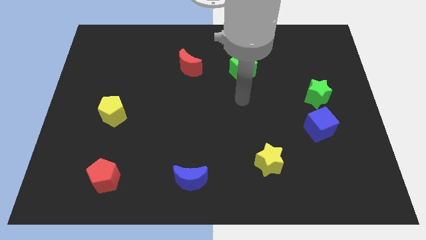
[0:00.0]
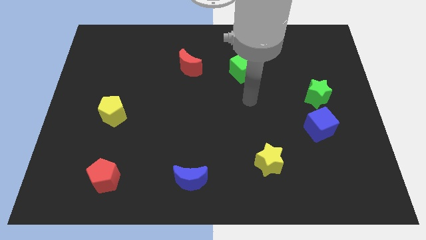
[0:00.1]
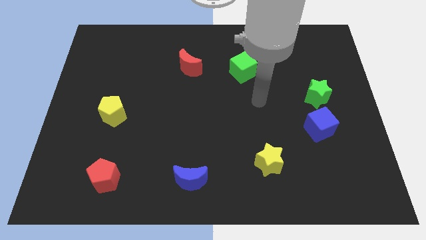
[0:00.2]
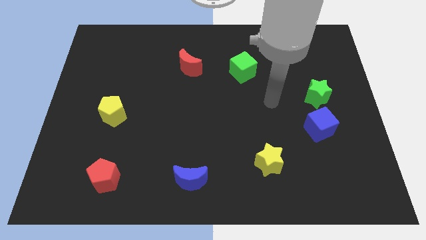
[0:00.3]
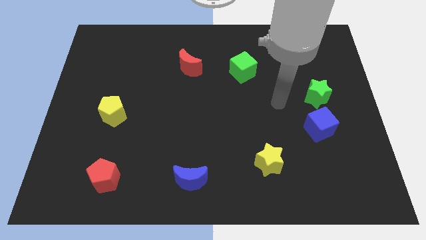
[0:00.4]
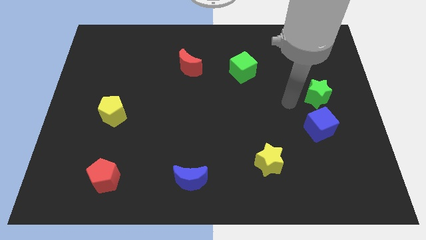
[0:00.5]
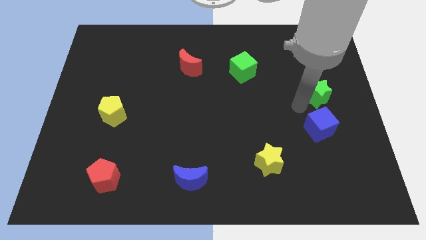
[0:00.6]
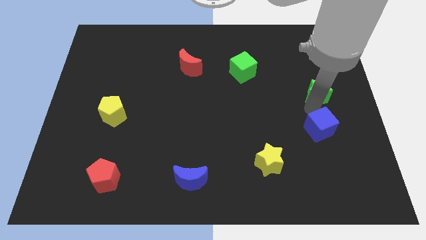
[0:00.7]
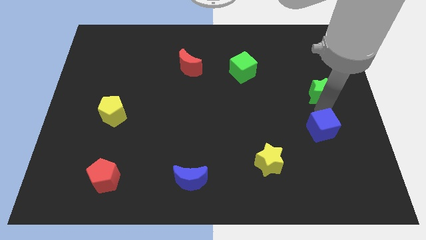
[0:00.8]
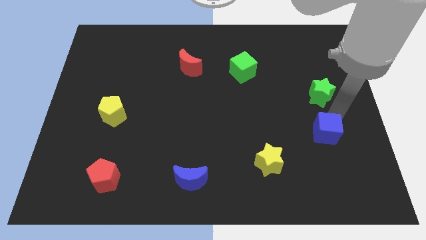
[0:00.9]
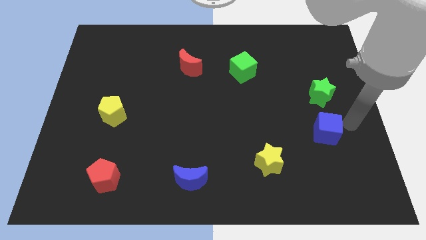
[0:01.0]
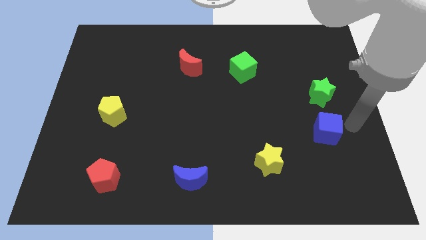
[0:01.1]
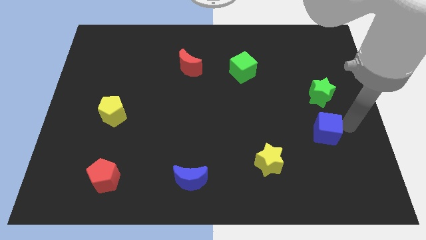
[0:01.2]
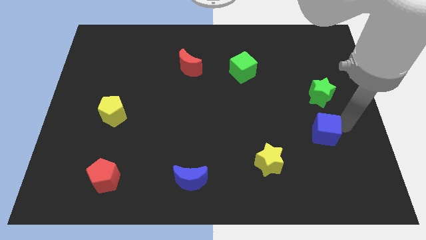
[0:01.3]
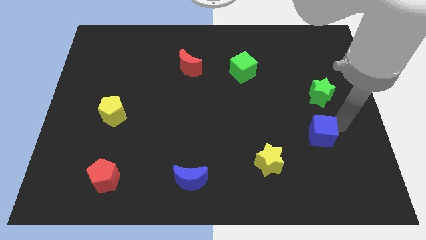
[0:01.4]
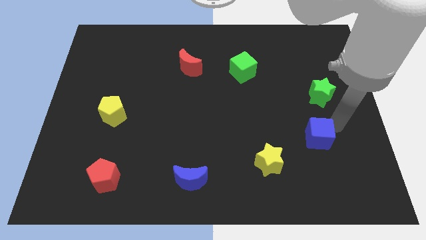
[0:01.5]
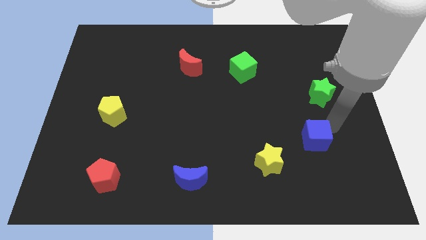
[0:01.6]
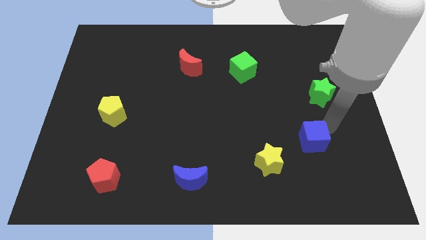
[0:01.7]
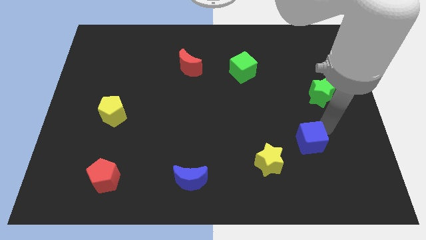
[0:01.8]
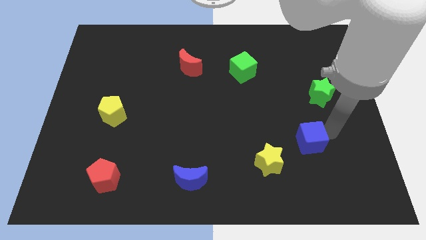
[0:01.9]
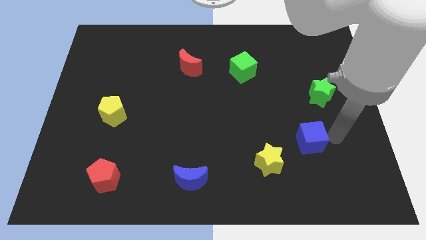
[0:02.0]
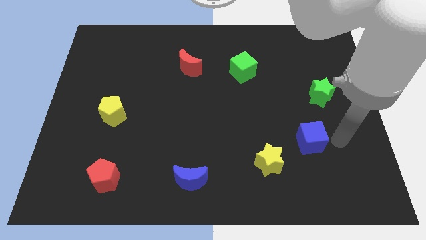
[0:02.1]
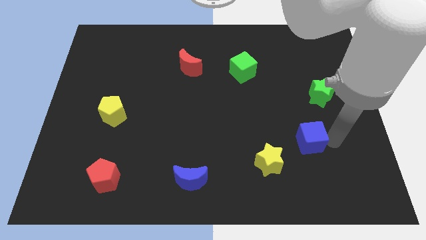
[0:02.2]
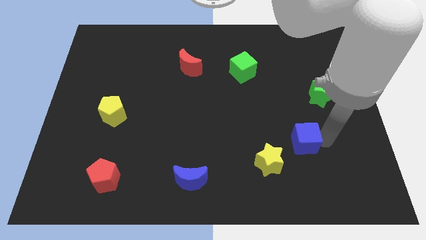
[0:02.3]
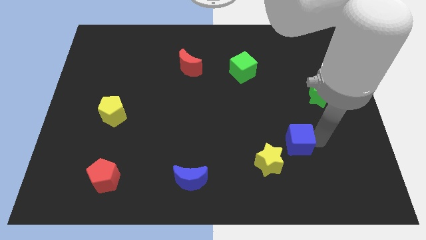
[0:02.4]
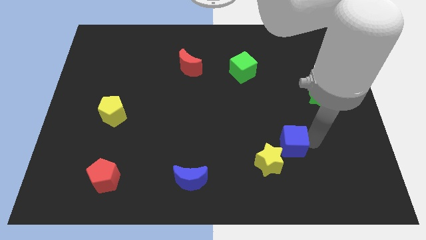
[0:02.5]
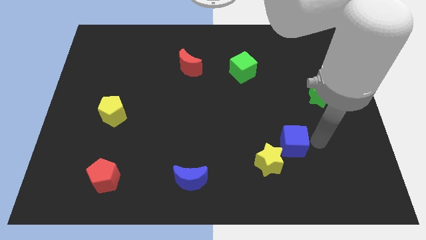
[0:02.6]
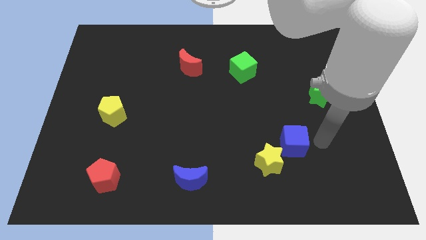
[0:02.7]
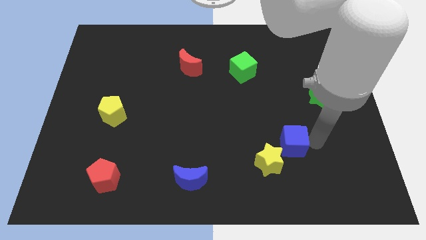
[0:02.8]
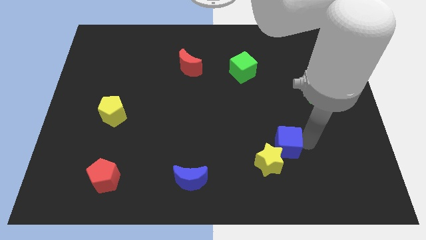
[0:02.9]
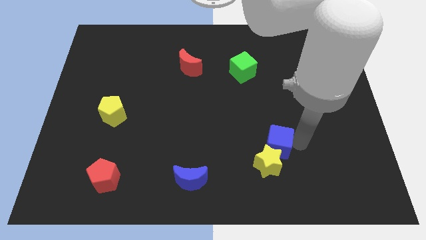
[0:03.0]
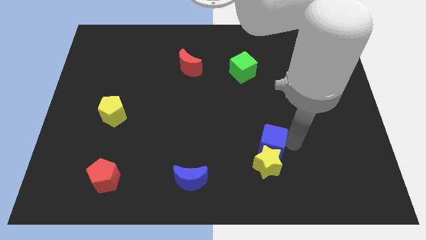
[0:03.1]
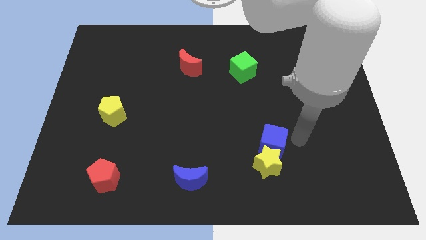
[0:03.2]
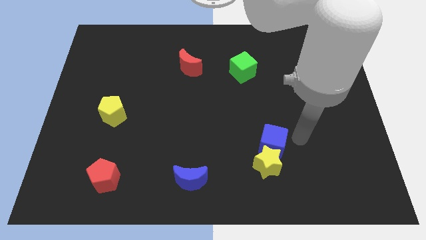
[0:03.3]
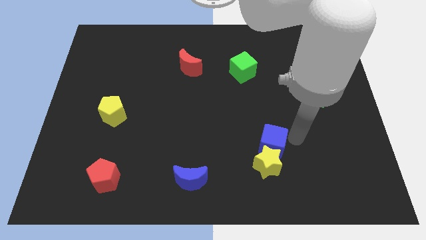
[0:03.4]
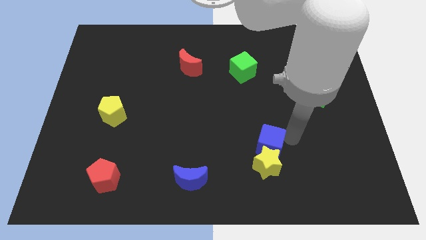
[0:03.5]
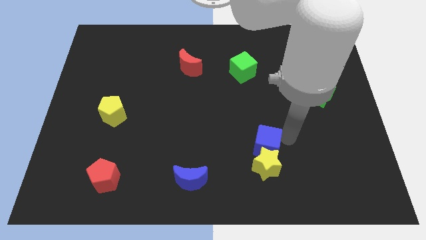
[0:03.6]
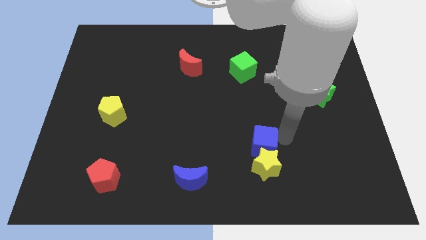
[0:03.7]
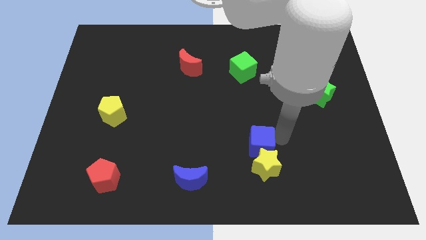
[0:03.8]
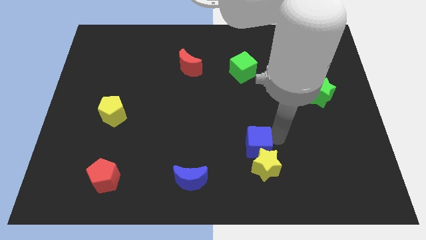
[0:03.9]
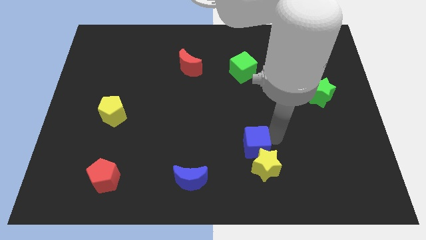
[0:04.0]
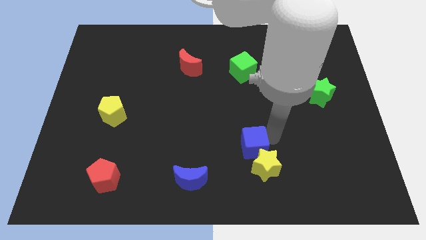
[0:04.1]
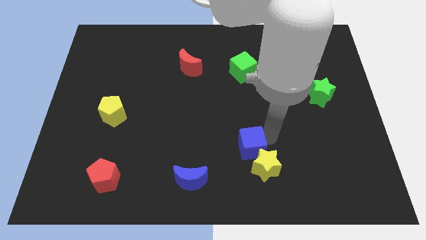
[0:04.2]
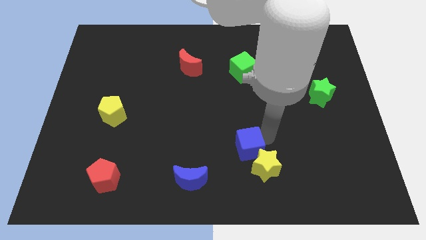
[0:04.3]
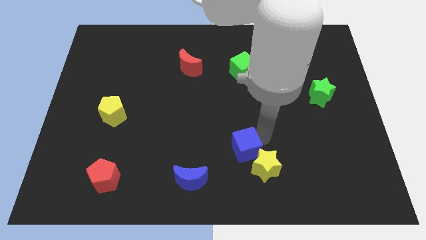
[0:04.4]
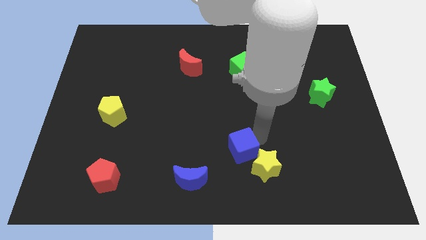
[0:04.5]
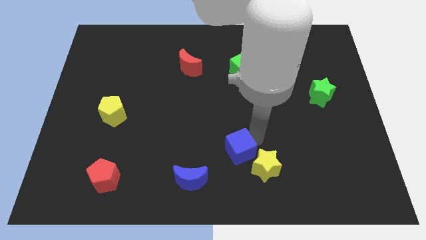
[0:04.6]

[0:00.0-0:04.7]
slide the blue cube to the top right of the blue moon

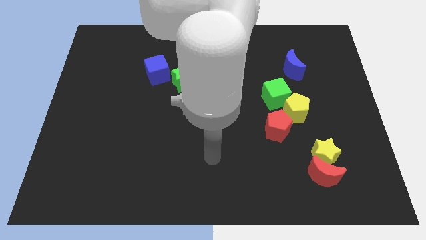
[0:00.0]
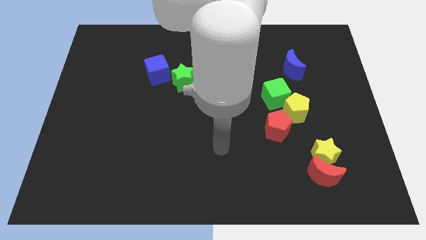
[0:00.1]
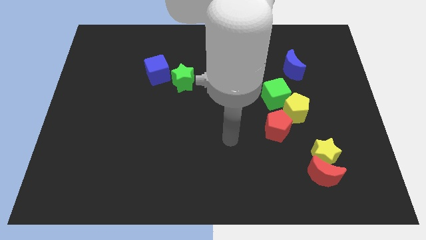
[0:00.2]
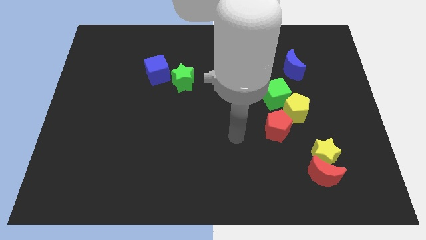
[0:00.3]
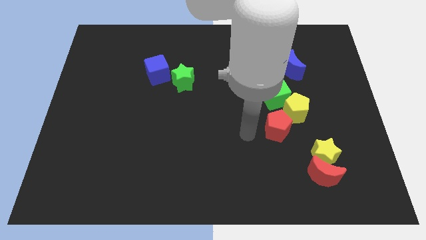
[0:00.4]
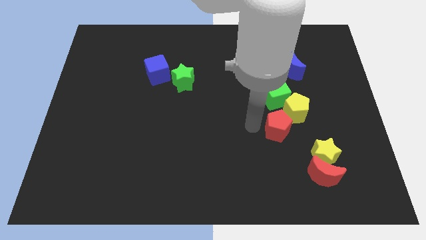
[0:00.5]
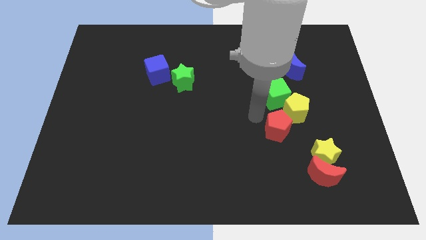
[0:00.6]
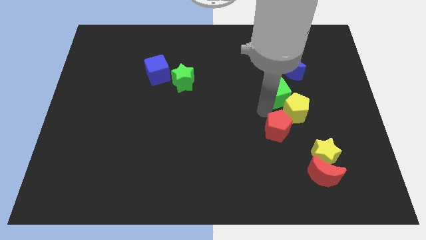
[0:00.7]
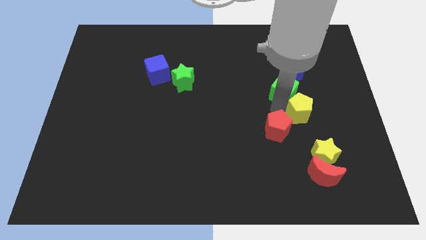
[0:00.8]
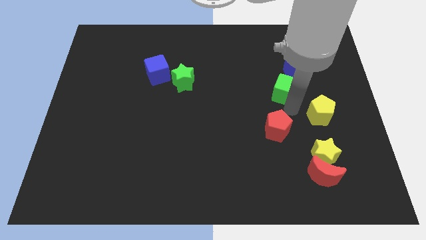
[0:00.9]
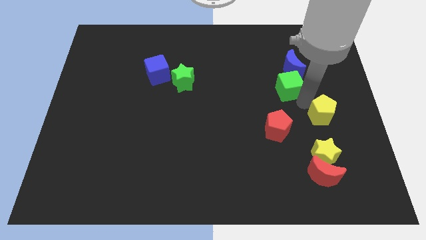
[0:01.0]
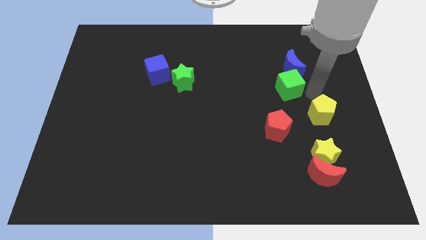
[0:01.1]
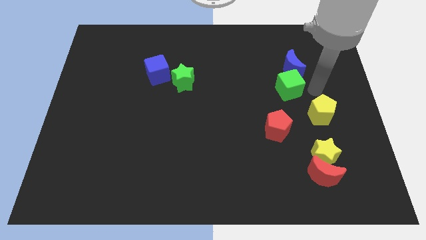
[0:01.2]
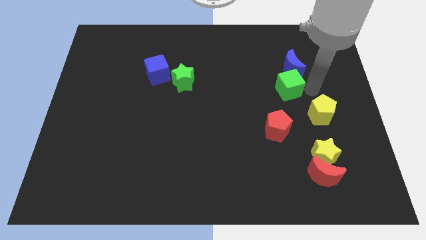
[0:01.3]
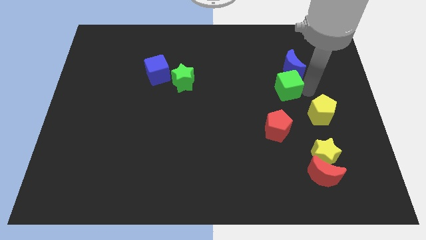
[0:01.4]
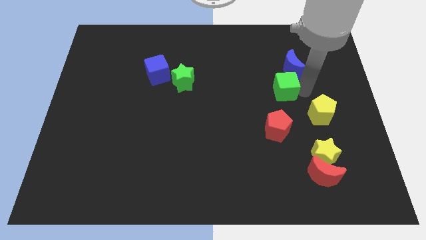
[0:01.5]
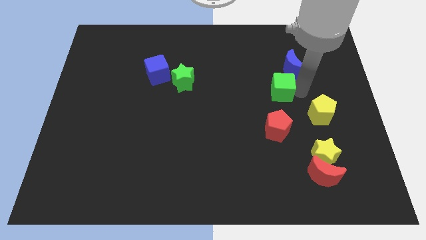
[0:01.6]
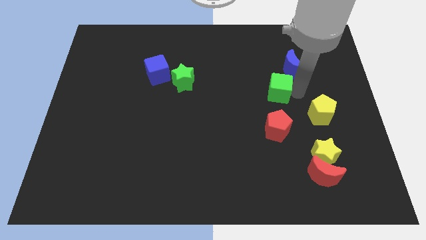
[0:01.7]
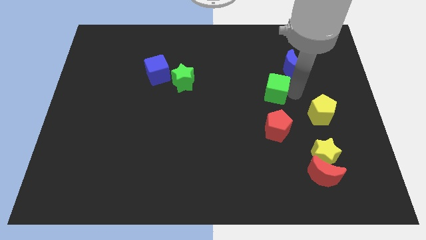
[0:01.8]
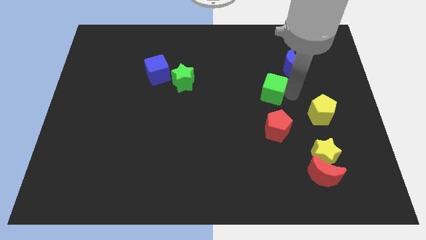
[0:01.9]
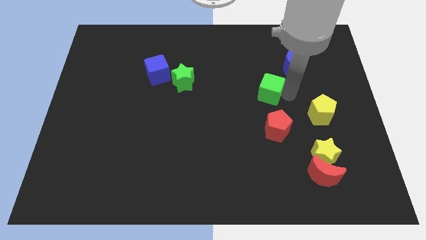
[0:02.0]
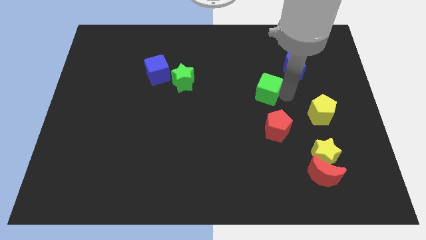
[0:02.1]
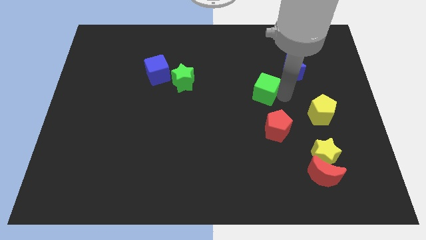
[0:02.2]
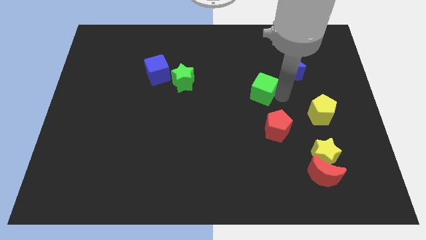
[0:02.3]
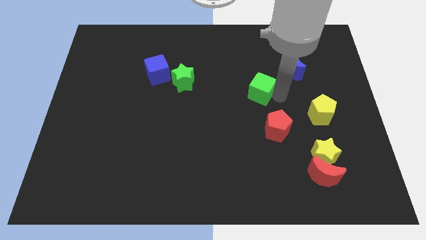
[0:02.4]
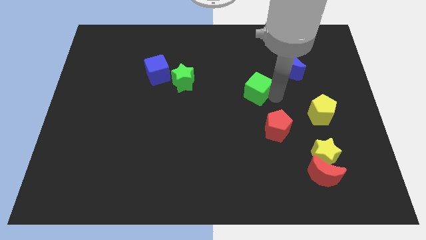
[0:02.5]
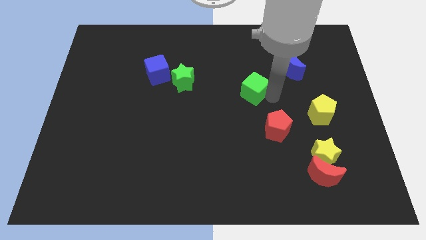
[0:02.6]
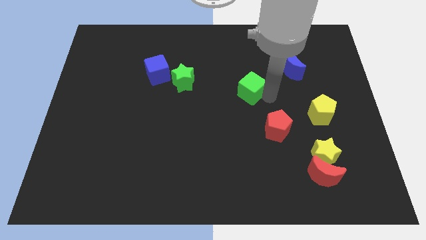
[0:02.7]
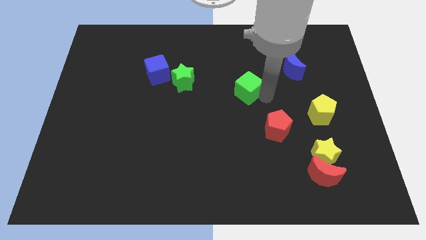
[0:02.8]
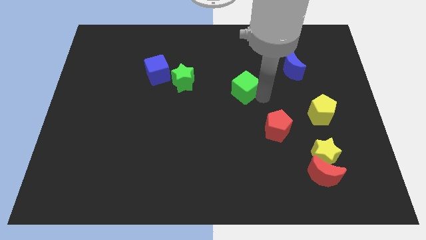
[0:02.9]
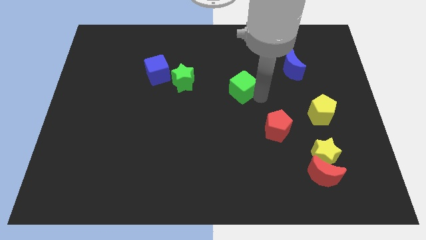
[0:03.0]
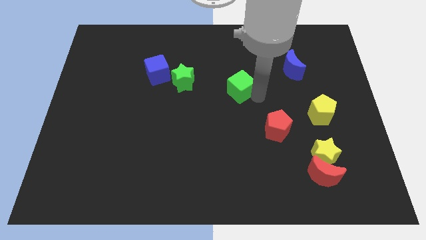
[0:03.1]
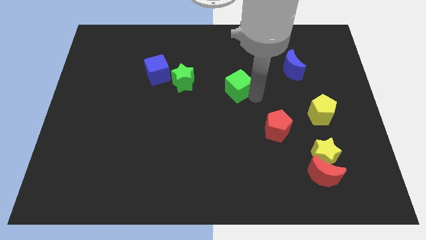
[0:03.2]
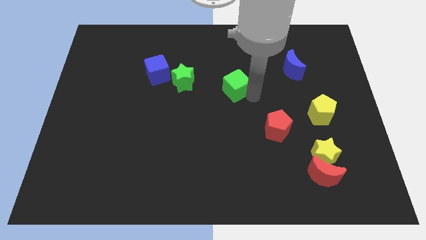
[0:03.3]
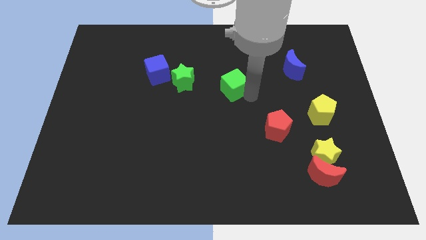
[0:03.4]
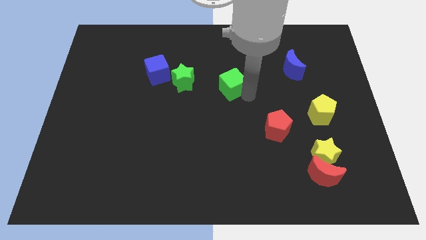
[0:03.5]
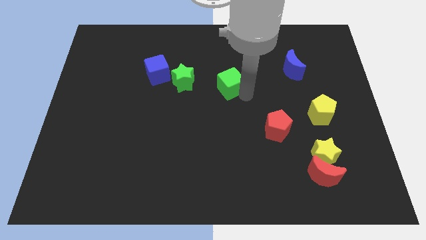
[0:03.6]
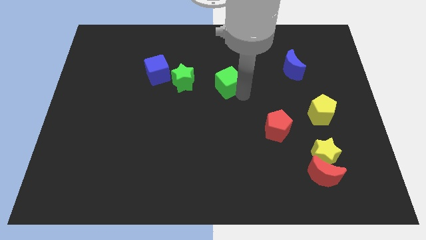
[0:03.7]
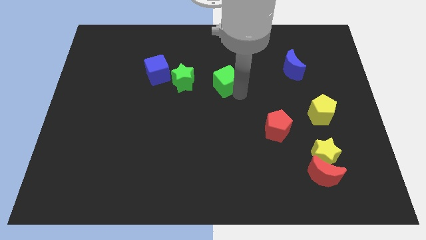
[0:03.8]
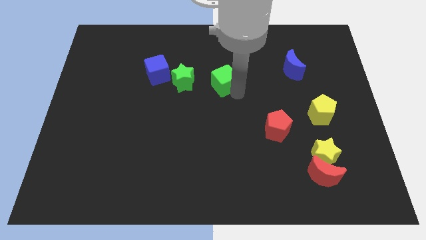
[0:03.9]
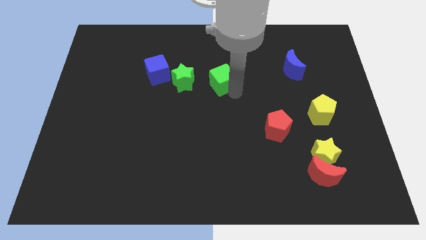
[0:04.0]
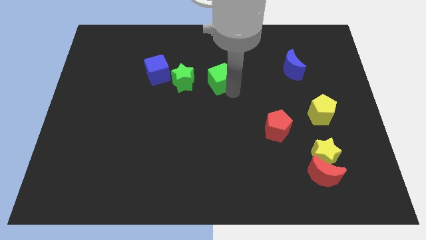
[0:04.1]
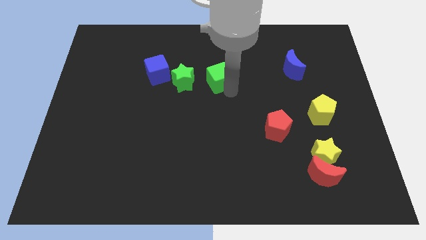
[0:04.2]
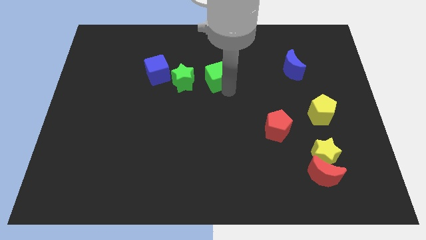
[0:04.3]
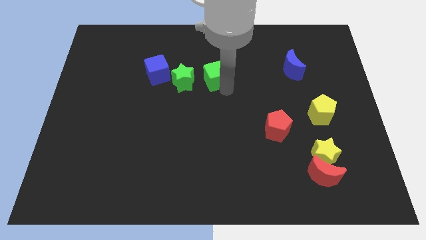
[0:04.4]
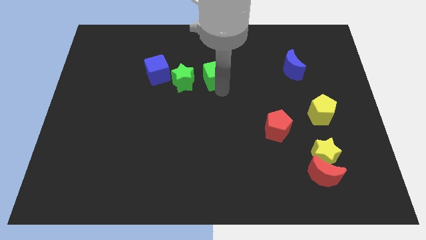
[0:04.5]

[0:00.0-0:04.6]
put the green cube to the top right of the green star
